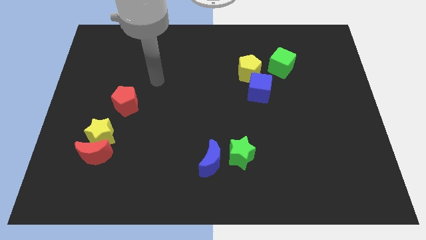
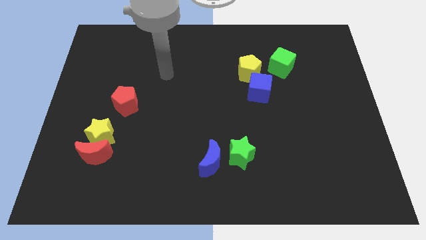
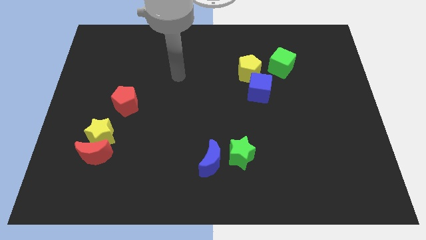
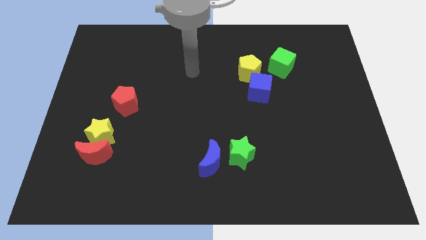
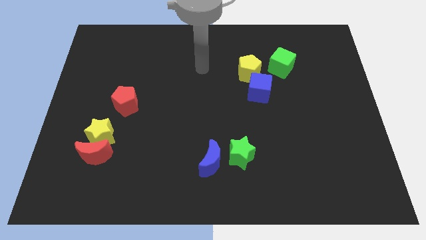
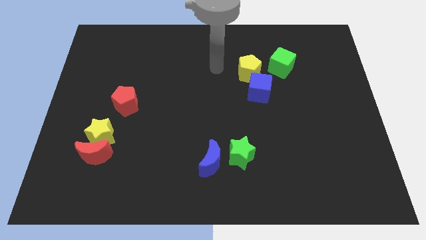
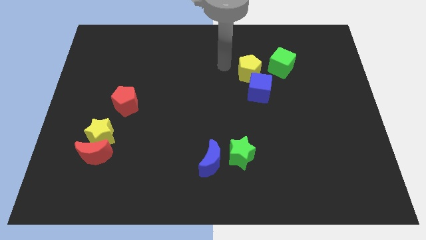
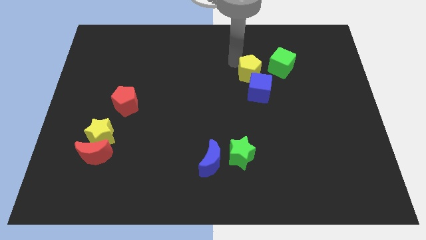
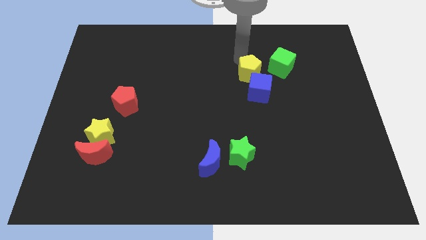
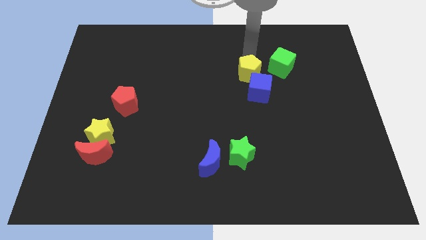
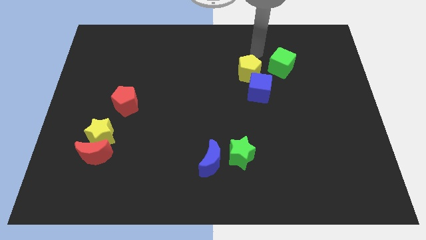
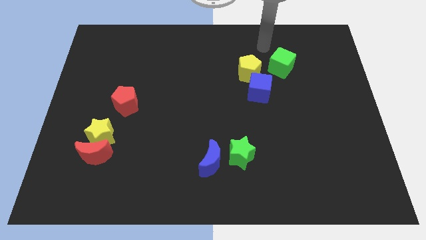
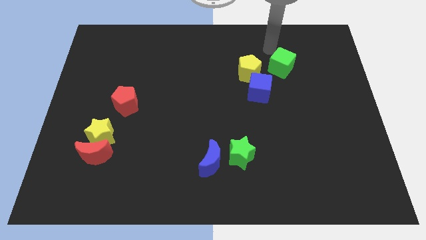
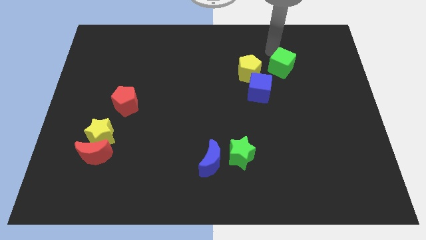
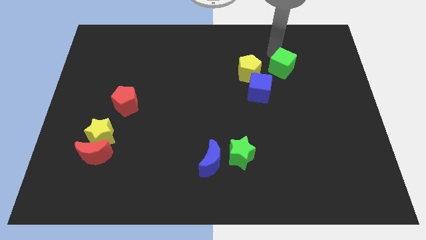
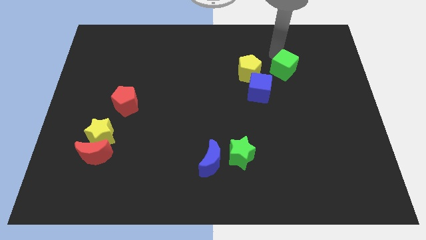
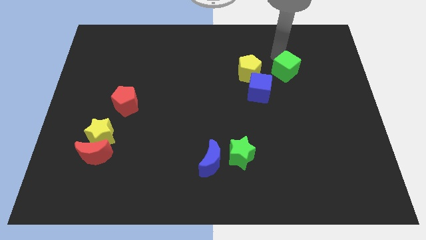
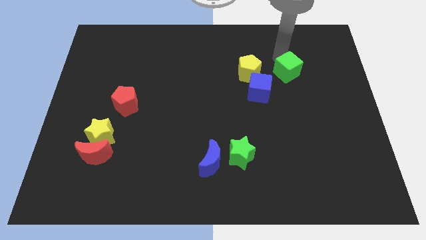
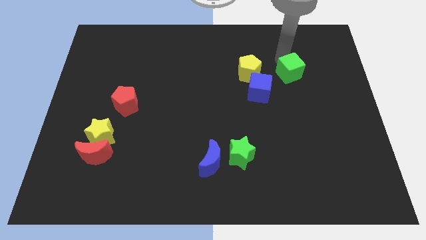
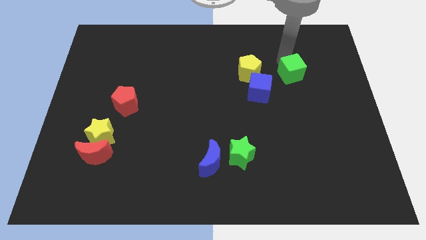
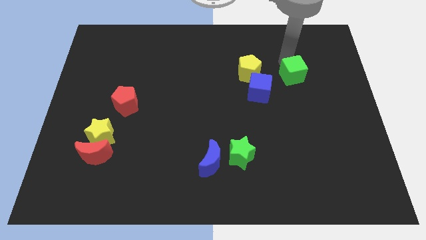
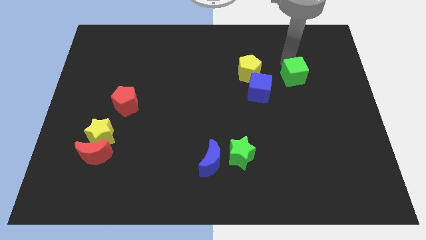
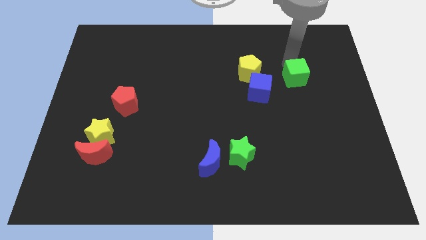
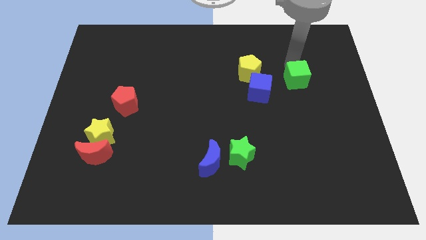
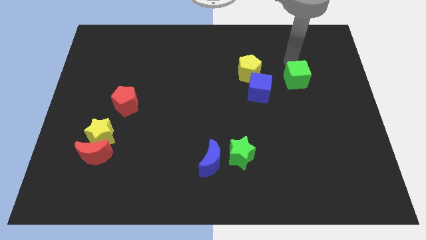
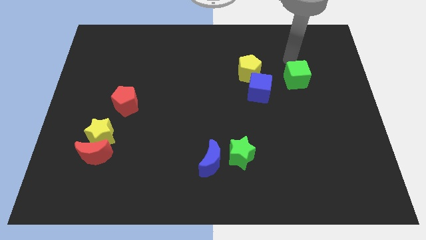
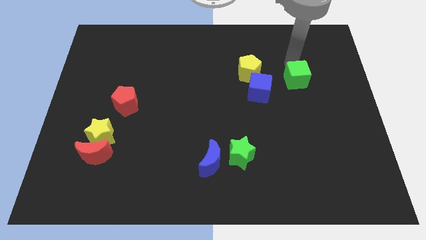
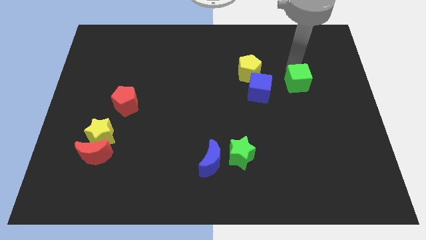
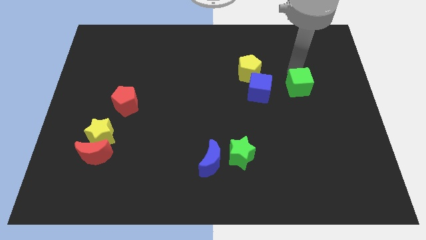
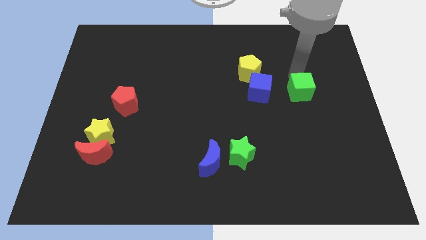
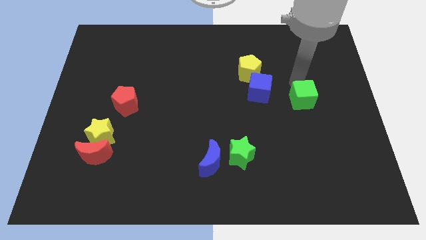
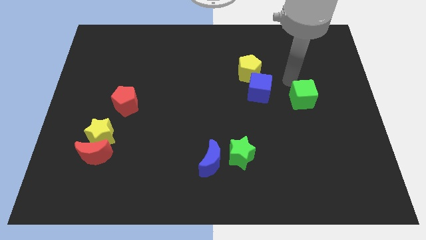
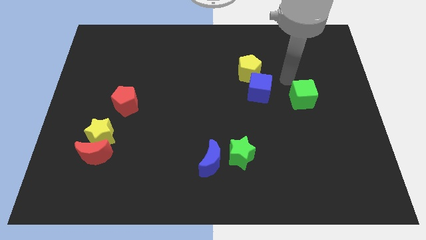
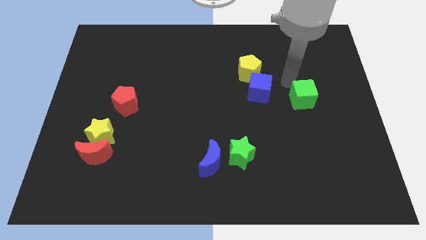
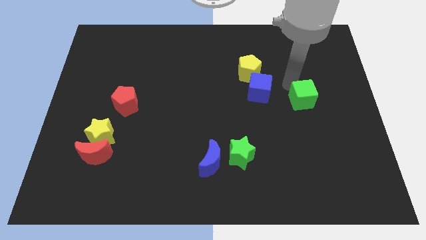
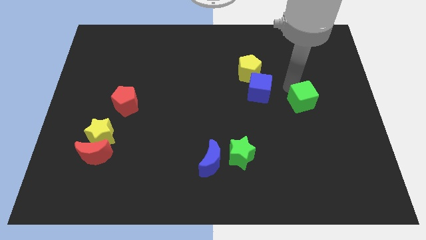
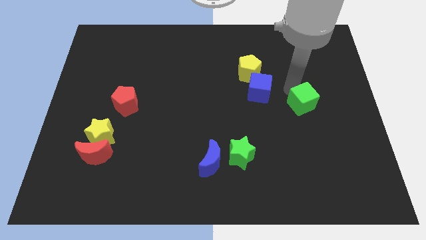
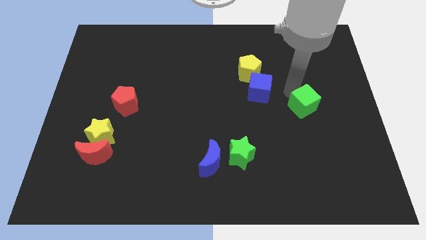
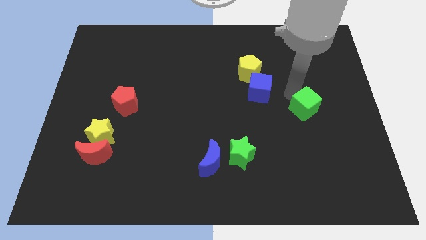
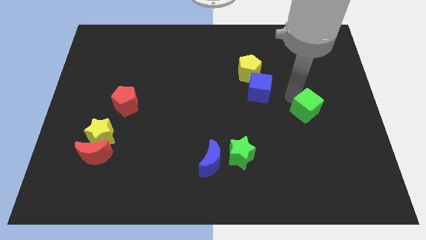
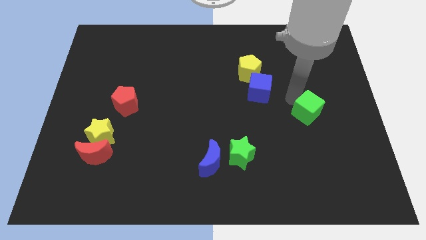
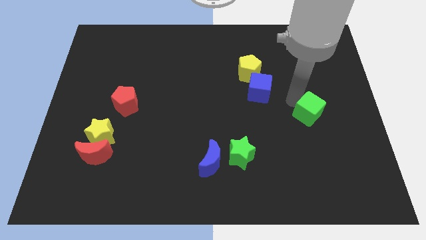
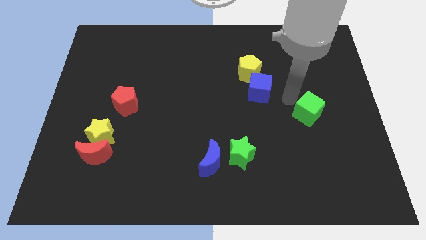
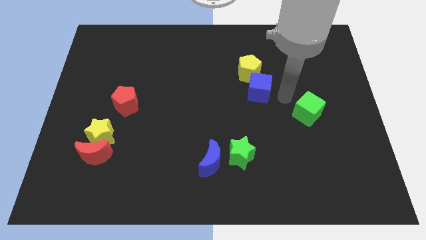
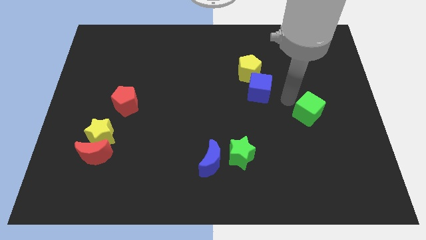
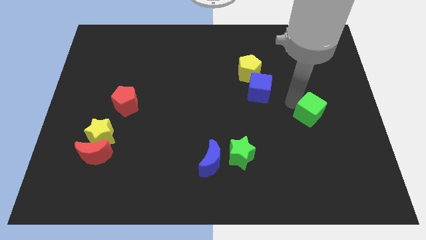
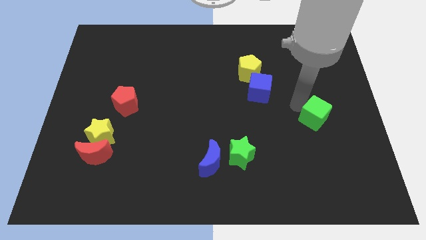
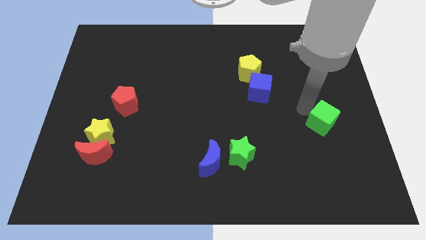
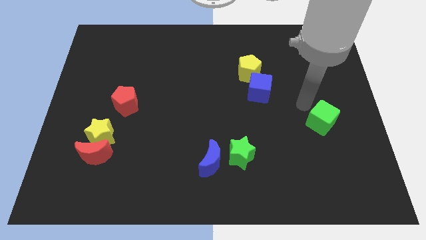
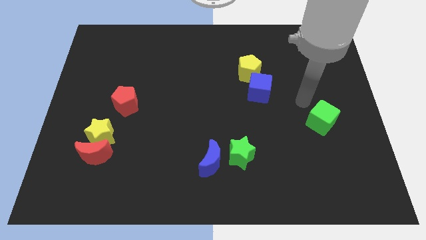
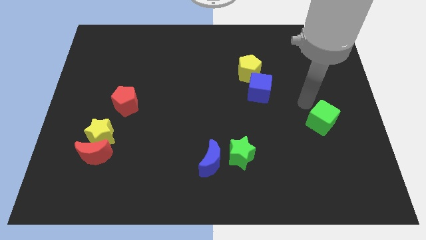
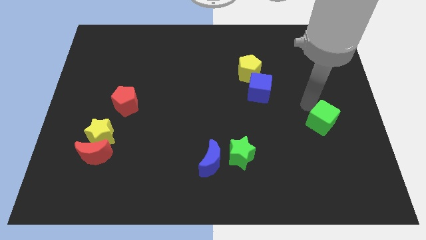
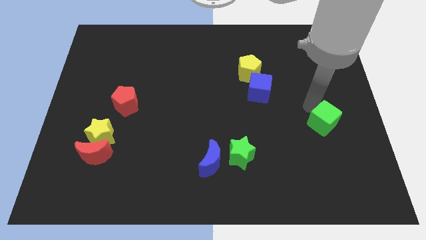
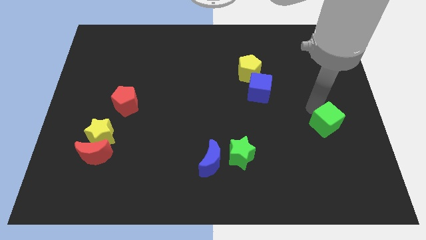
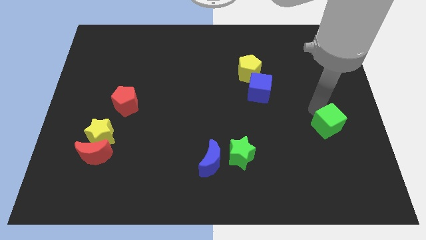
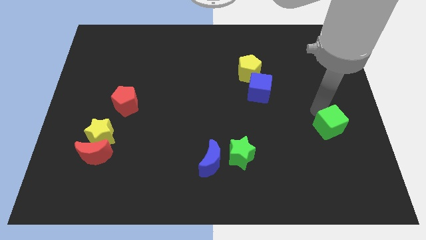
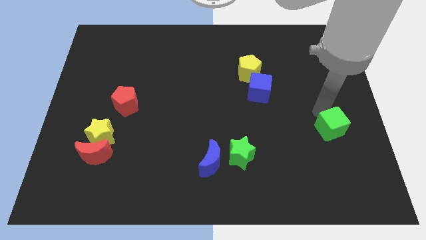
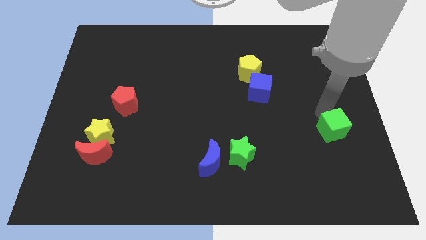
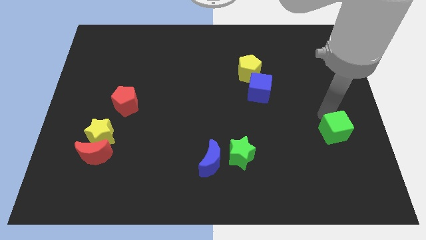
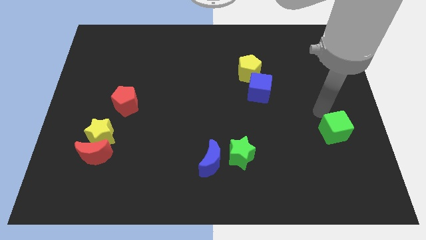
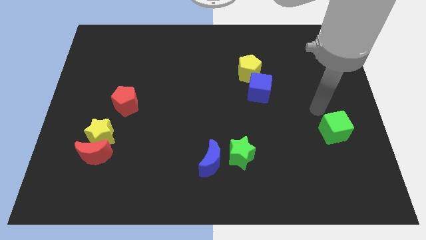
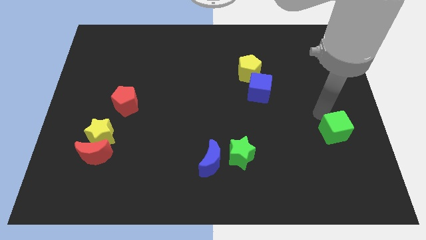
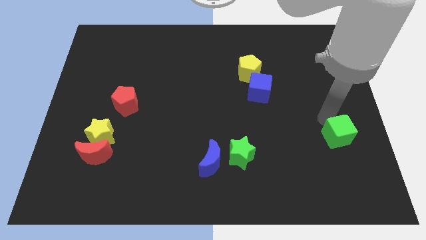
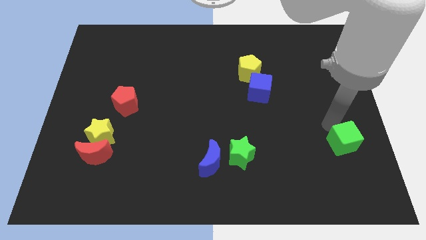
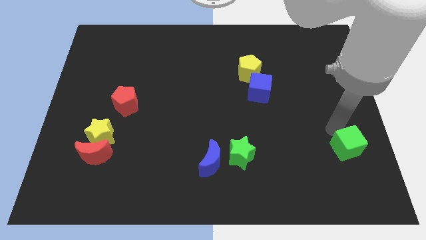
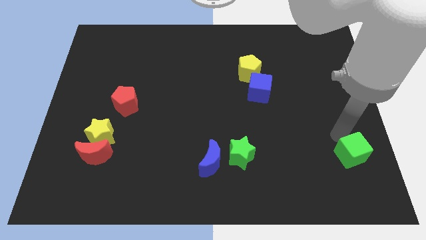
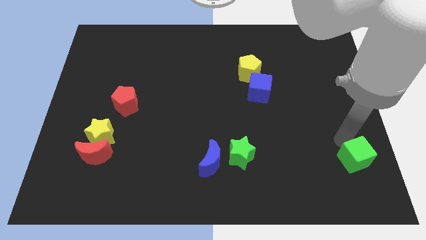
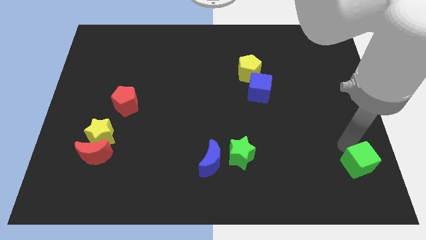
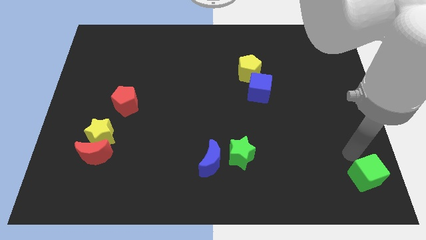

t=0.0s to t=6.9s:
put the green cube to the lower right corner
